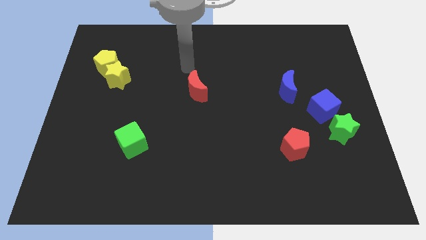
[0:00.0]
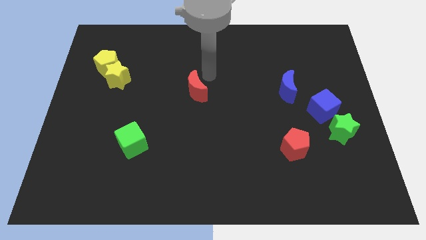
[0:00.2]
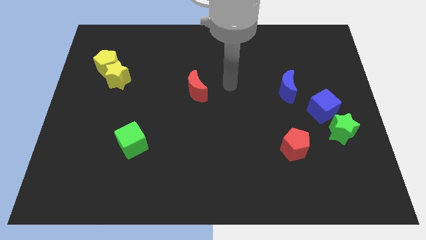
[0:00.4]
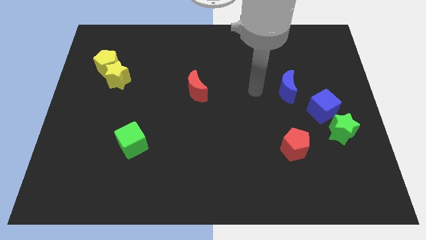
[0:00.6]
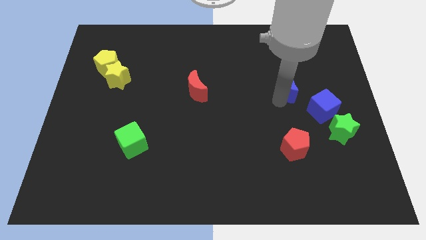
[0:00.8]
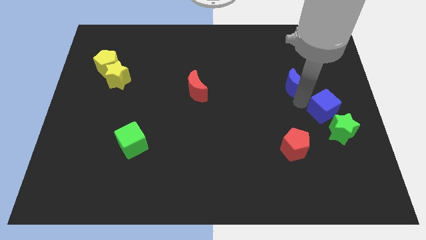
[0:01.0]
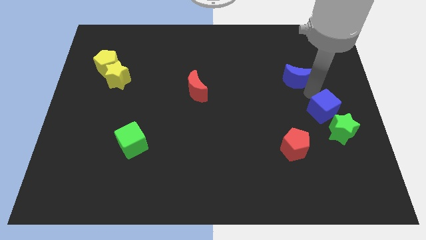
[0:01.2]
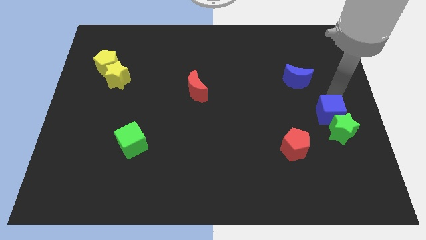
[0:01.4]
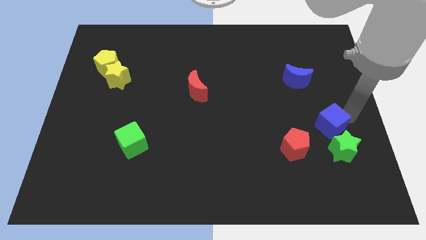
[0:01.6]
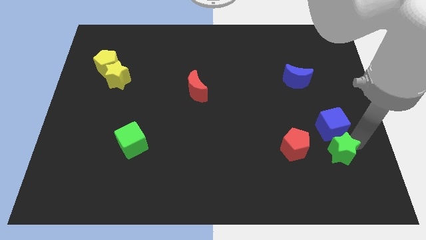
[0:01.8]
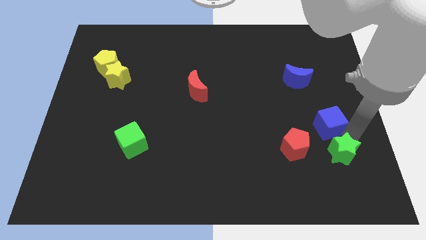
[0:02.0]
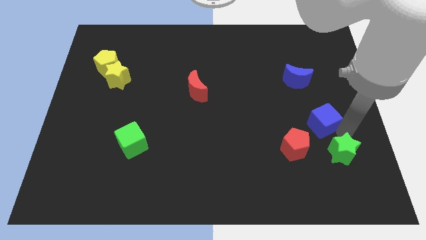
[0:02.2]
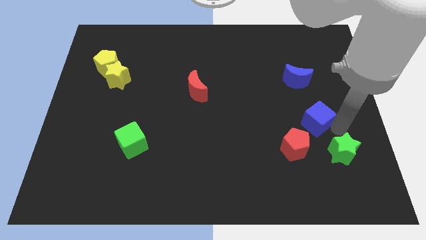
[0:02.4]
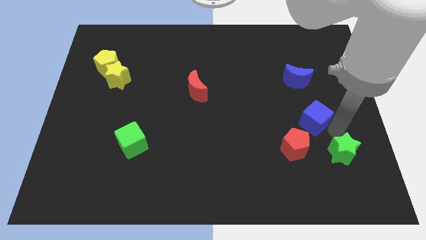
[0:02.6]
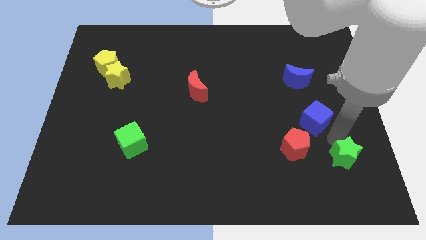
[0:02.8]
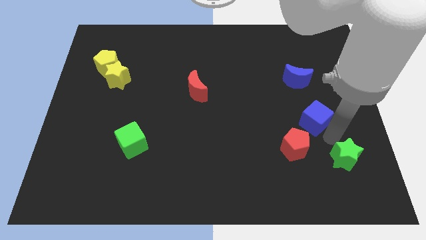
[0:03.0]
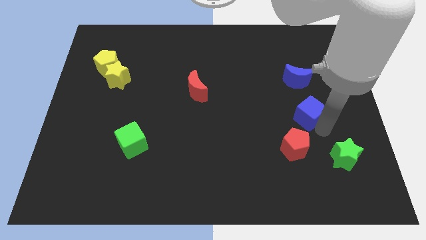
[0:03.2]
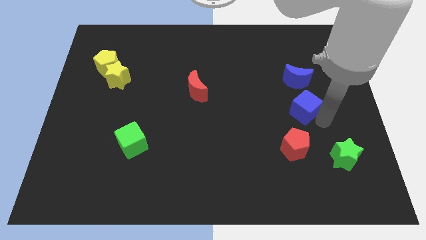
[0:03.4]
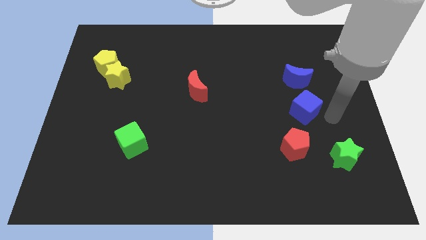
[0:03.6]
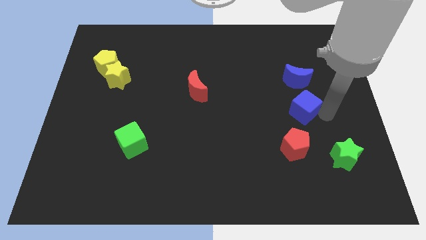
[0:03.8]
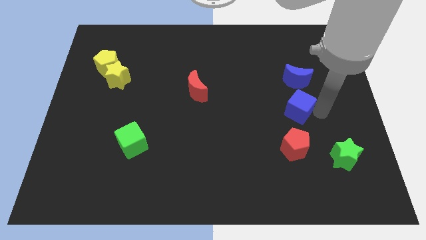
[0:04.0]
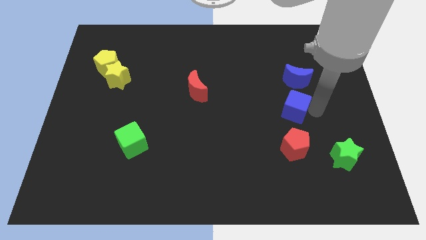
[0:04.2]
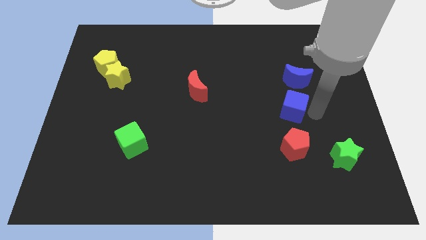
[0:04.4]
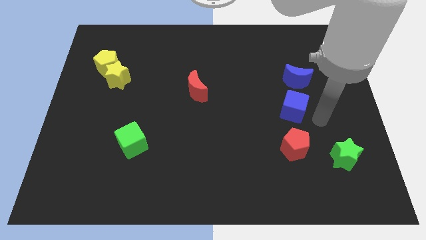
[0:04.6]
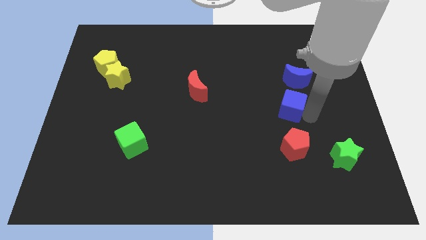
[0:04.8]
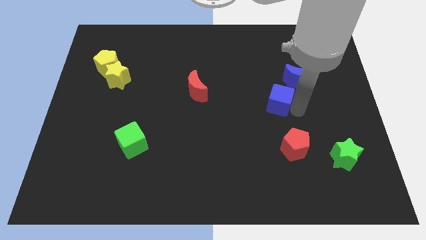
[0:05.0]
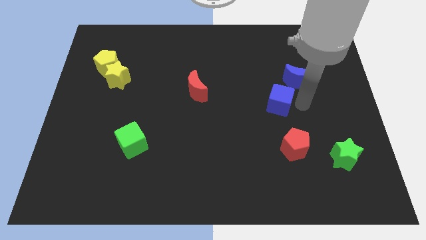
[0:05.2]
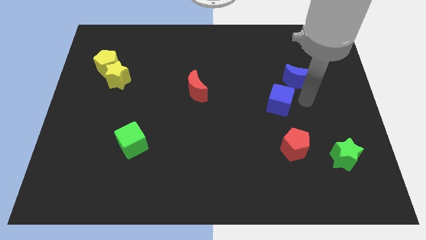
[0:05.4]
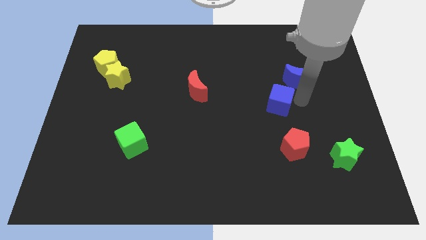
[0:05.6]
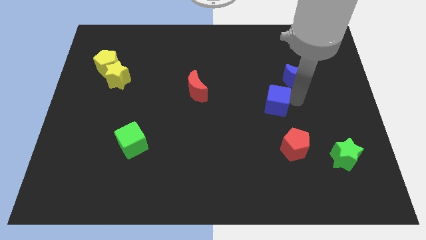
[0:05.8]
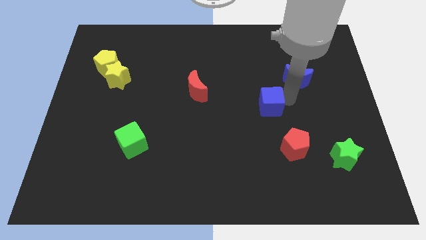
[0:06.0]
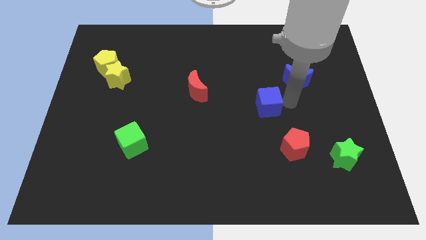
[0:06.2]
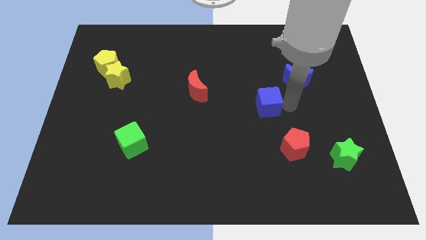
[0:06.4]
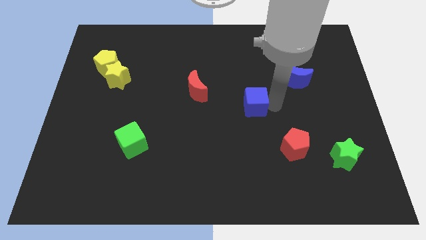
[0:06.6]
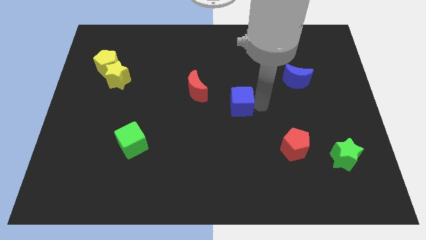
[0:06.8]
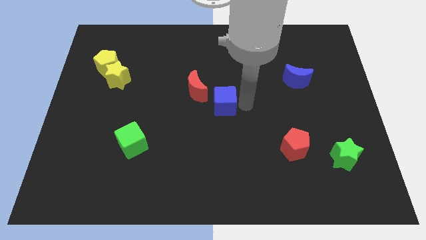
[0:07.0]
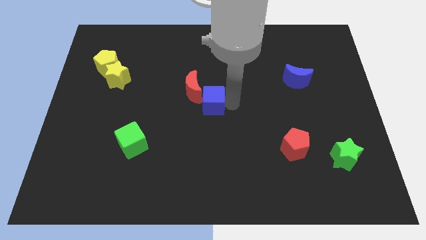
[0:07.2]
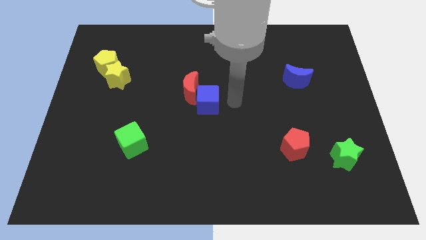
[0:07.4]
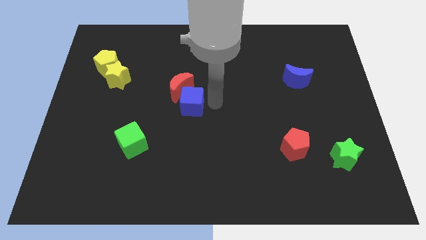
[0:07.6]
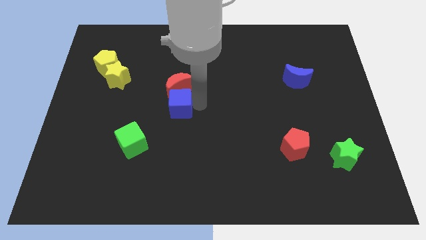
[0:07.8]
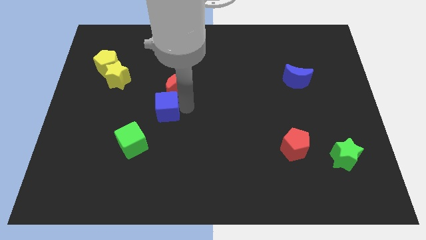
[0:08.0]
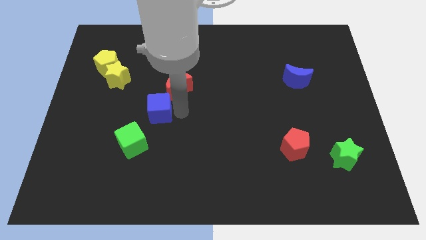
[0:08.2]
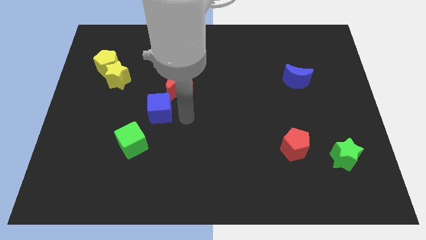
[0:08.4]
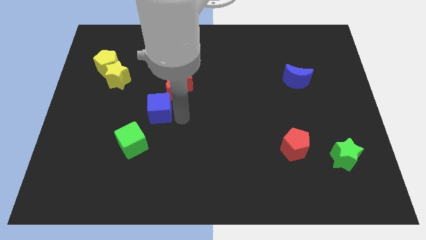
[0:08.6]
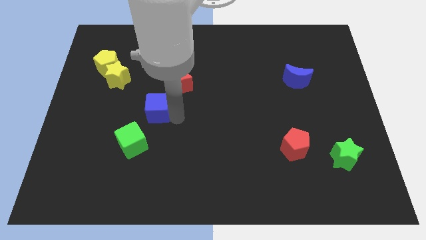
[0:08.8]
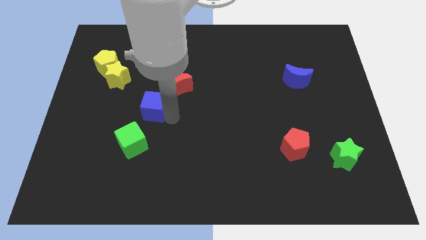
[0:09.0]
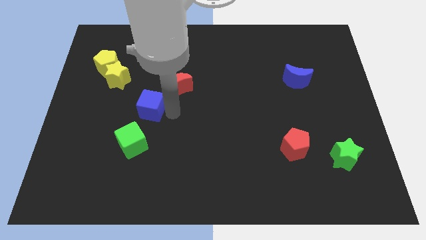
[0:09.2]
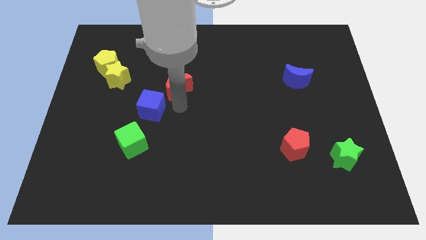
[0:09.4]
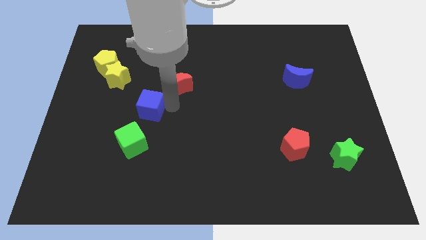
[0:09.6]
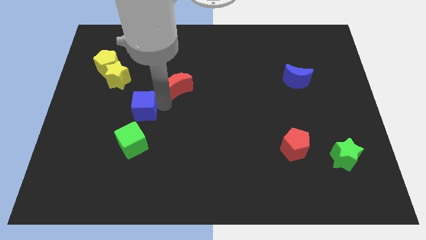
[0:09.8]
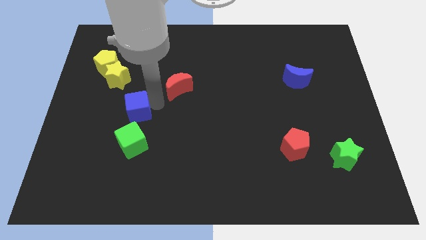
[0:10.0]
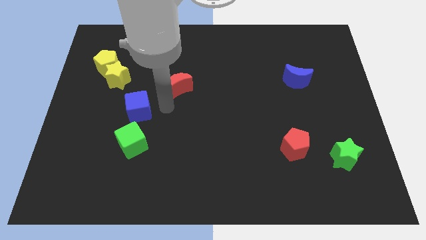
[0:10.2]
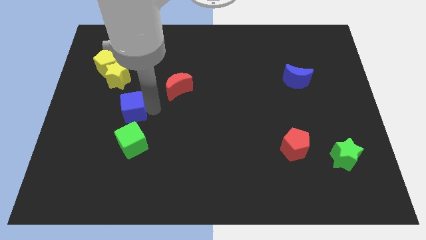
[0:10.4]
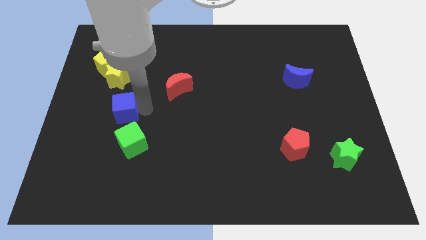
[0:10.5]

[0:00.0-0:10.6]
move the blue cube to the bottom side of the yellow star

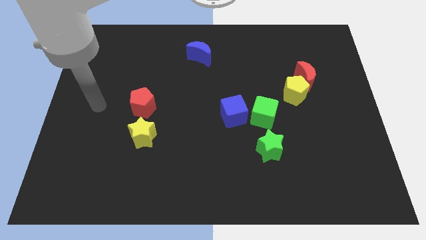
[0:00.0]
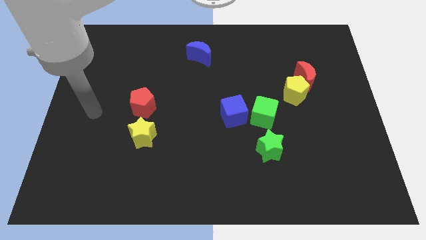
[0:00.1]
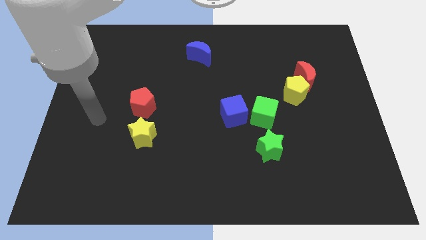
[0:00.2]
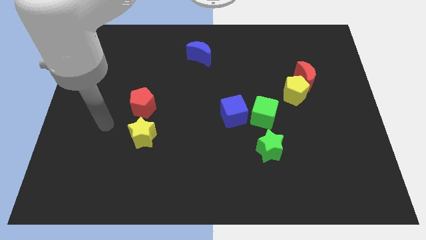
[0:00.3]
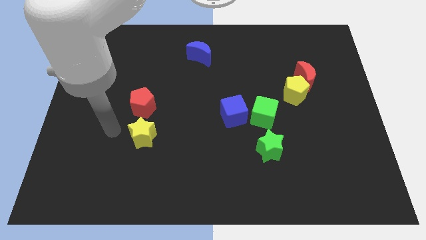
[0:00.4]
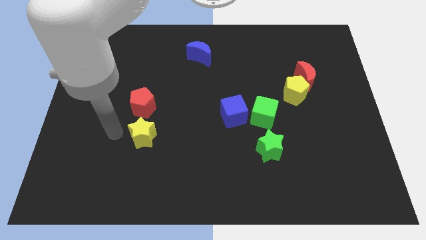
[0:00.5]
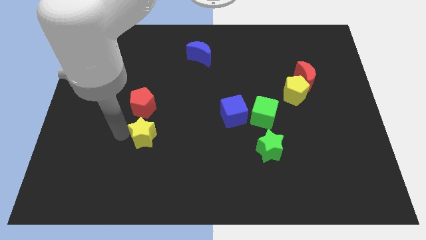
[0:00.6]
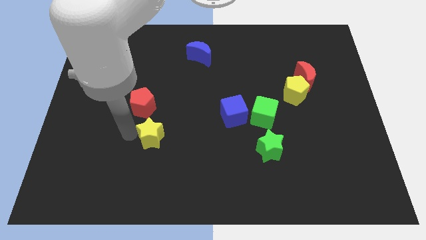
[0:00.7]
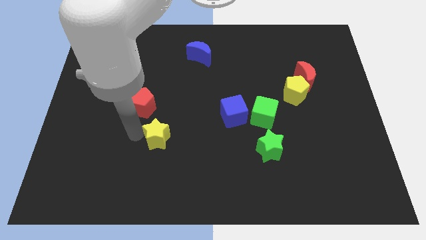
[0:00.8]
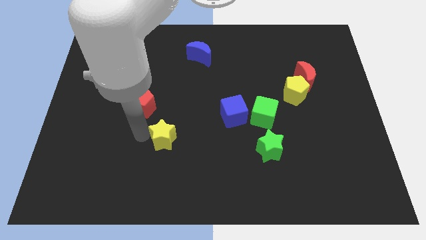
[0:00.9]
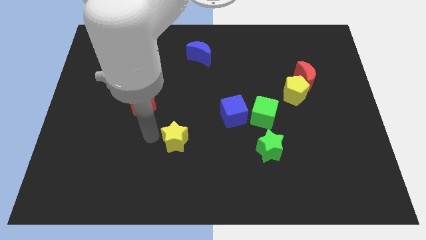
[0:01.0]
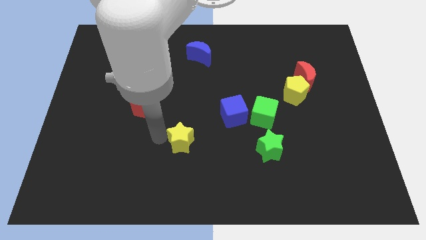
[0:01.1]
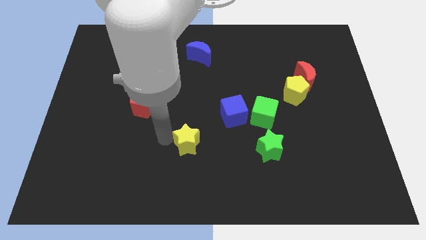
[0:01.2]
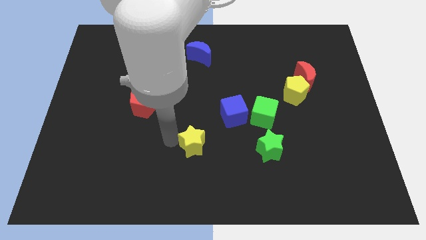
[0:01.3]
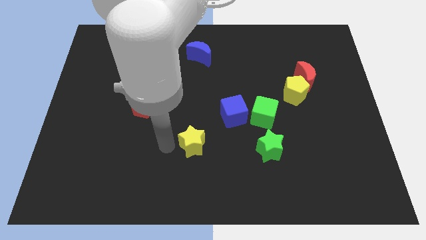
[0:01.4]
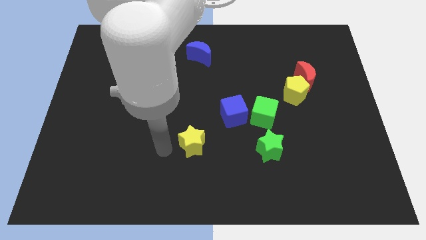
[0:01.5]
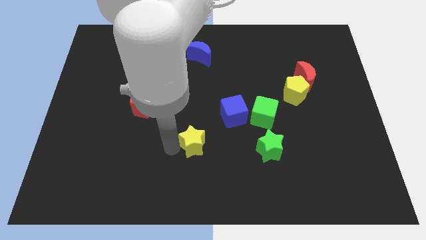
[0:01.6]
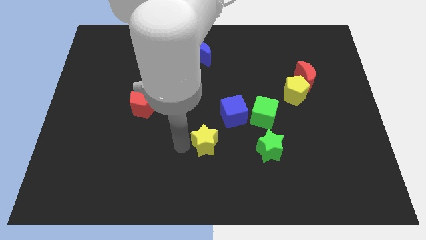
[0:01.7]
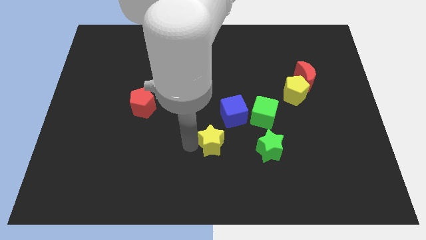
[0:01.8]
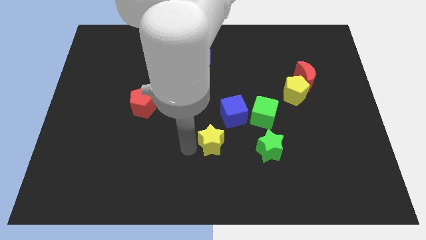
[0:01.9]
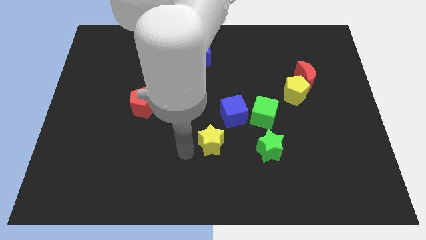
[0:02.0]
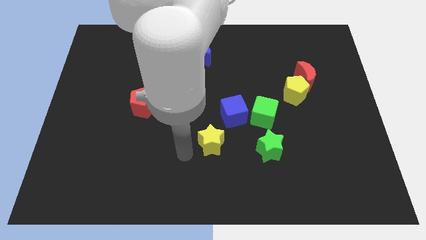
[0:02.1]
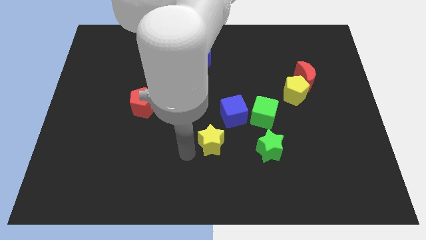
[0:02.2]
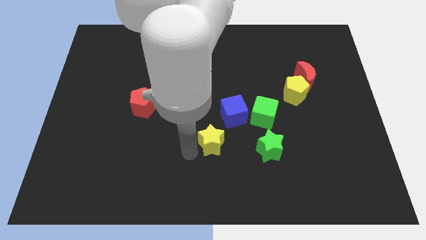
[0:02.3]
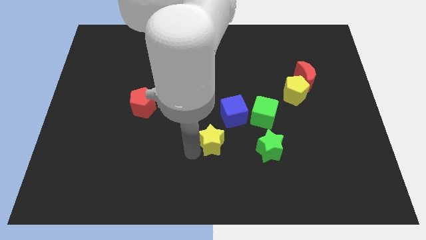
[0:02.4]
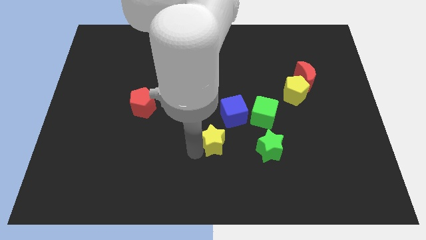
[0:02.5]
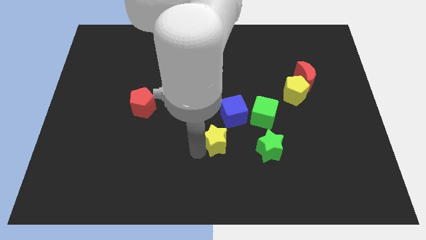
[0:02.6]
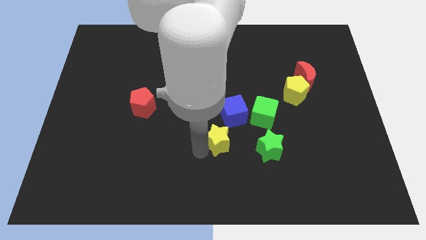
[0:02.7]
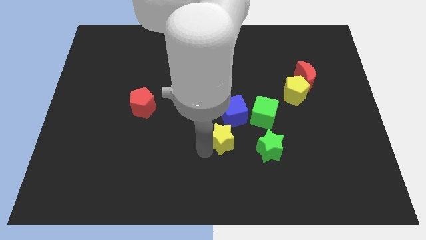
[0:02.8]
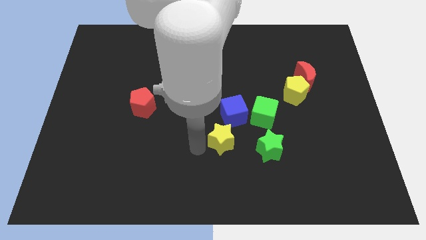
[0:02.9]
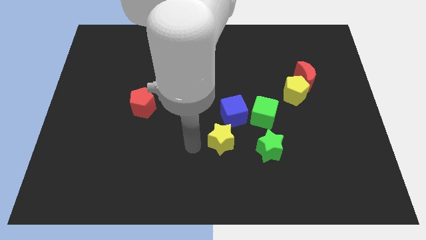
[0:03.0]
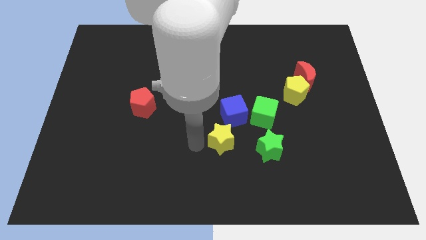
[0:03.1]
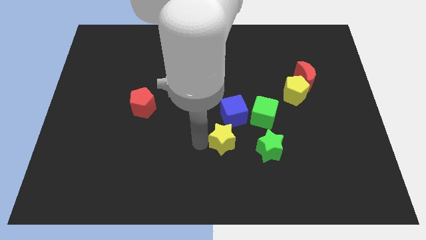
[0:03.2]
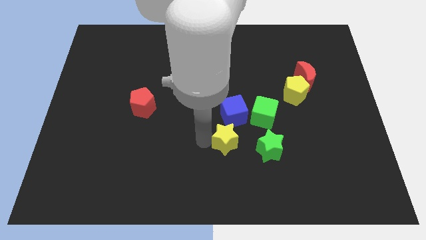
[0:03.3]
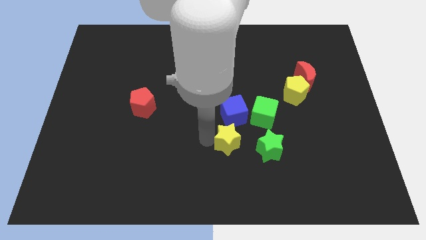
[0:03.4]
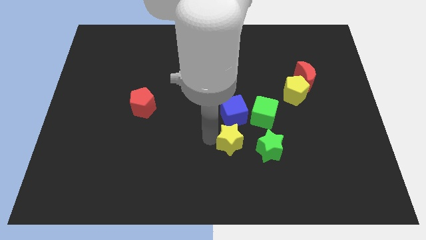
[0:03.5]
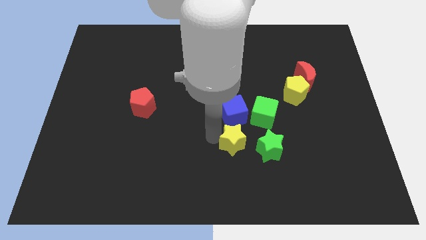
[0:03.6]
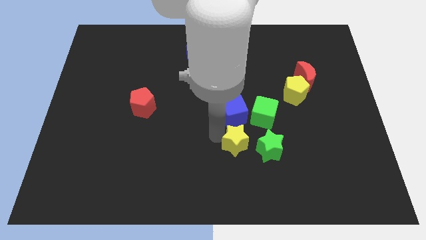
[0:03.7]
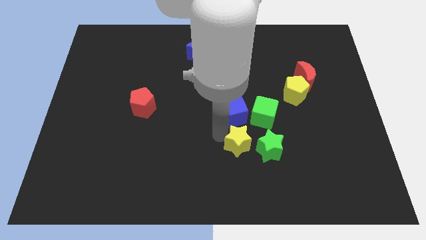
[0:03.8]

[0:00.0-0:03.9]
move the yellow star to the bottom right of the blue cube
